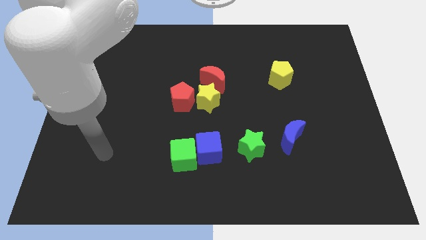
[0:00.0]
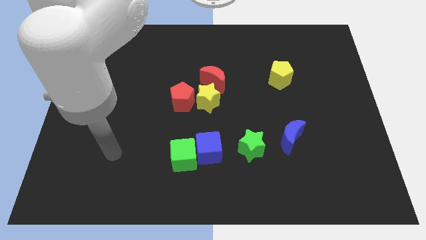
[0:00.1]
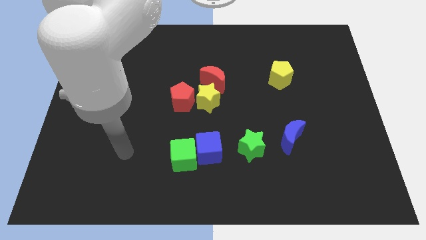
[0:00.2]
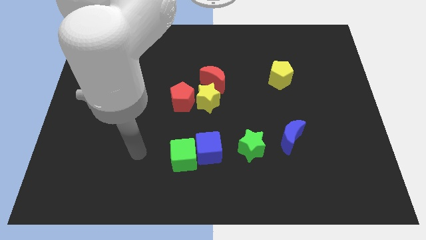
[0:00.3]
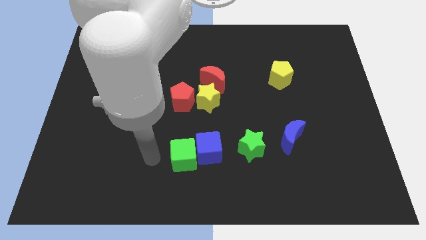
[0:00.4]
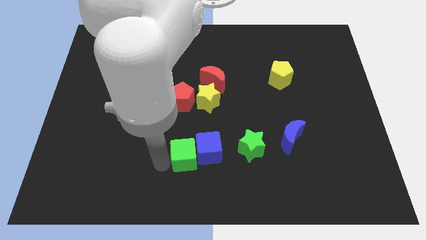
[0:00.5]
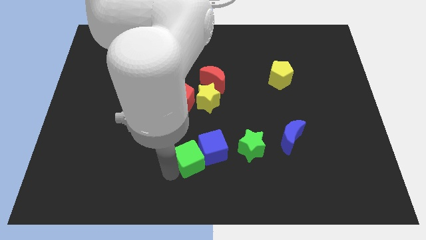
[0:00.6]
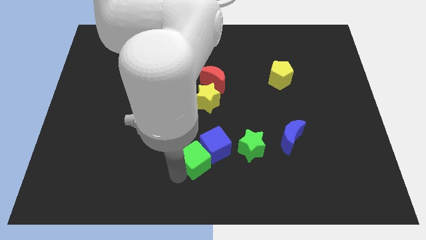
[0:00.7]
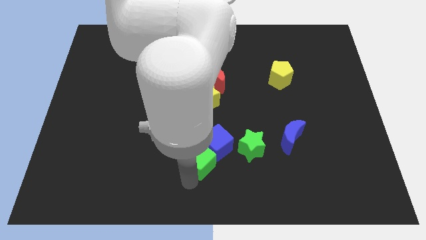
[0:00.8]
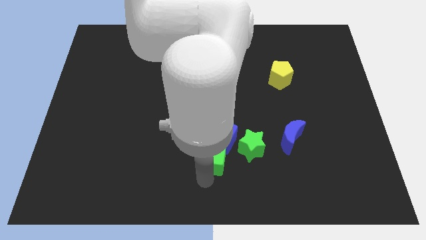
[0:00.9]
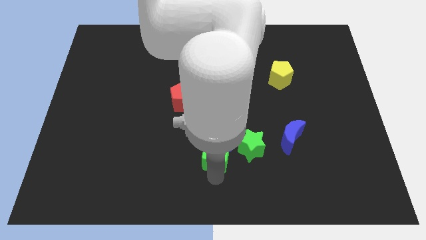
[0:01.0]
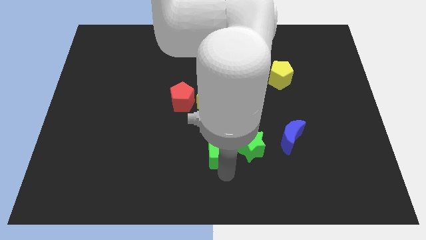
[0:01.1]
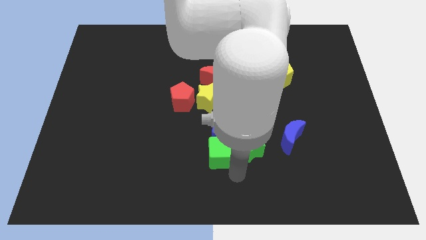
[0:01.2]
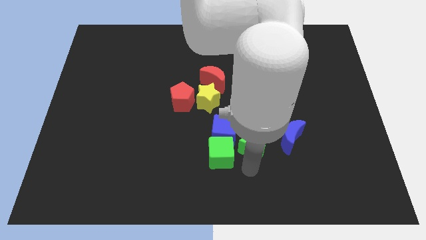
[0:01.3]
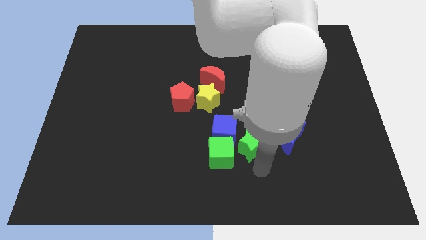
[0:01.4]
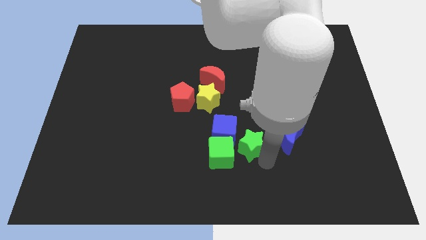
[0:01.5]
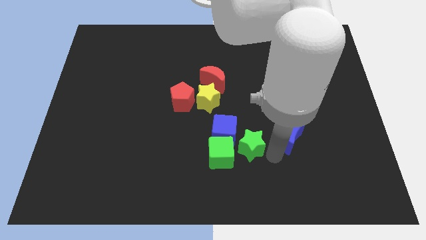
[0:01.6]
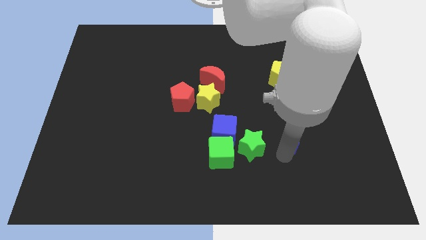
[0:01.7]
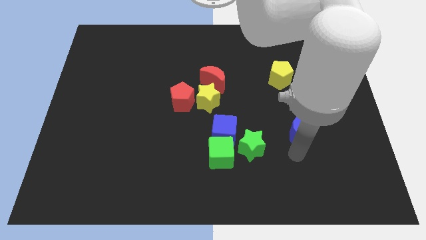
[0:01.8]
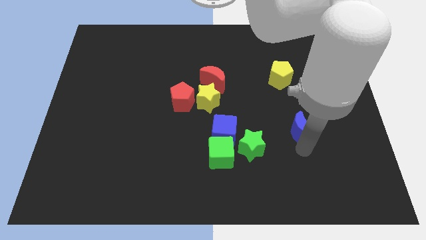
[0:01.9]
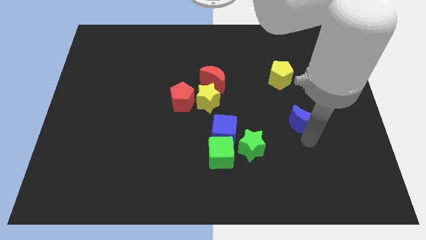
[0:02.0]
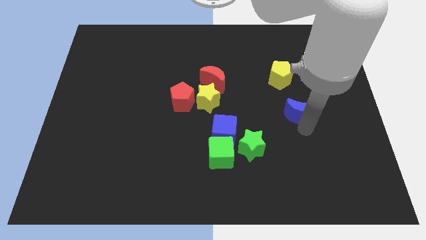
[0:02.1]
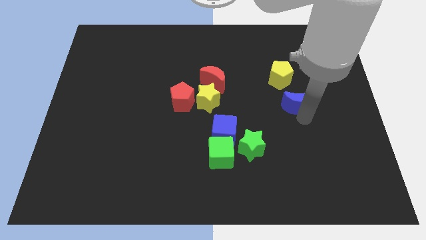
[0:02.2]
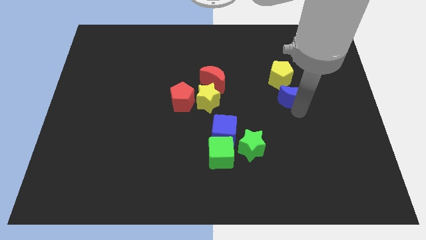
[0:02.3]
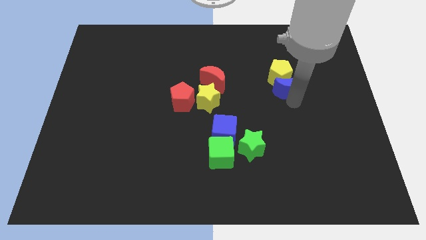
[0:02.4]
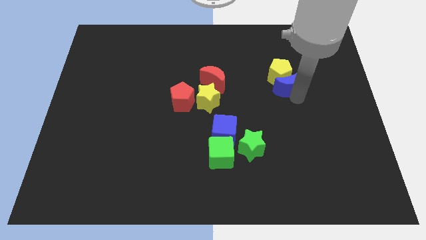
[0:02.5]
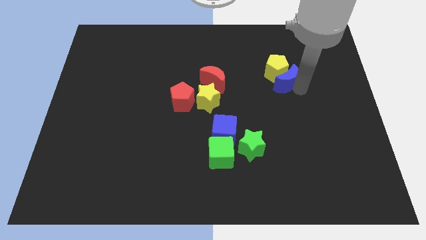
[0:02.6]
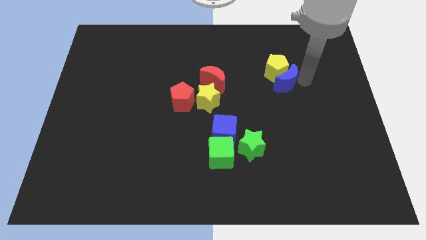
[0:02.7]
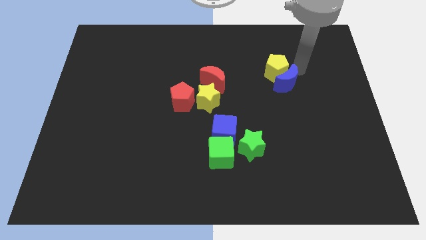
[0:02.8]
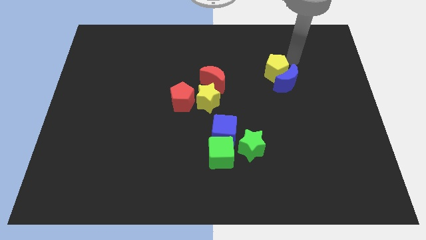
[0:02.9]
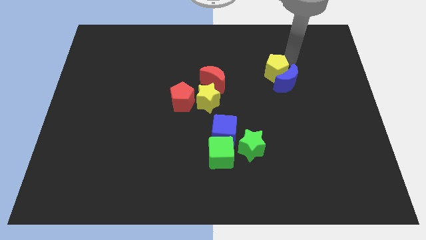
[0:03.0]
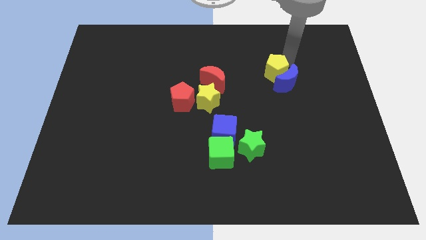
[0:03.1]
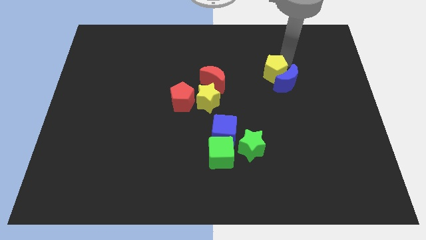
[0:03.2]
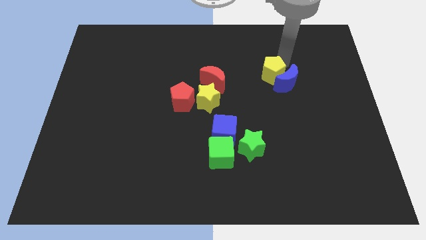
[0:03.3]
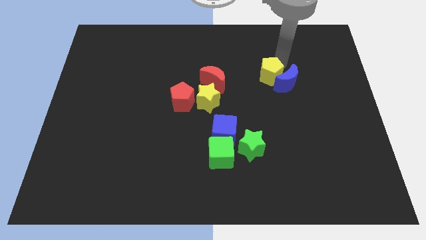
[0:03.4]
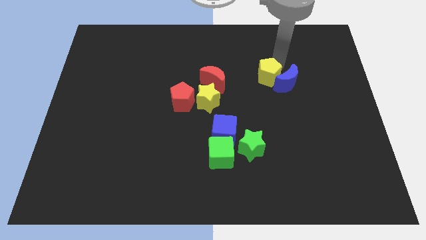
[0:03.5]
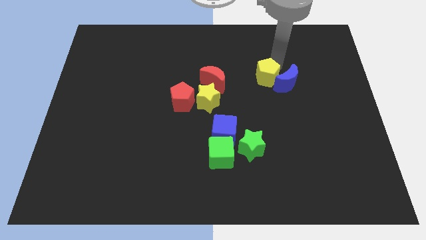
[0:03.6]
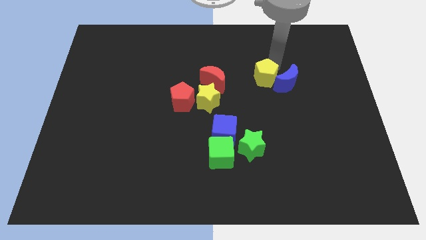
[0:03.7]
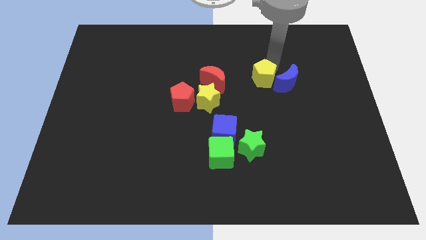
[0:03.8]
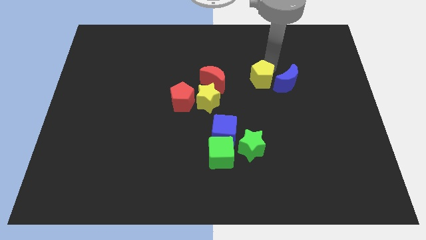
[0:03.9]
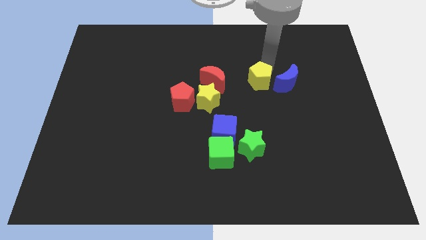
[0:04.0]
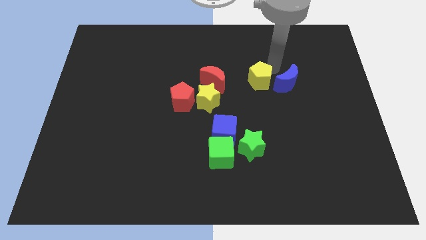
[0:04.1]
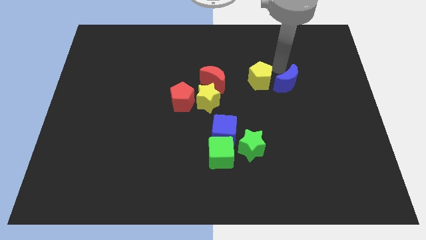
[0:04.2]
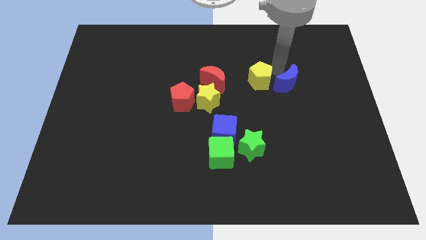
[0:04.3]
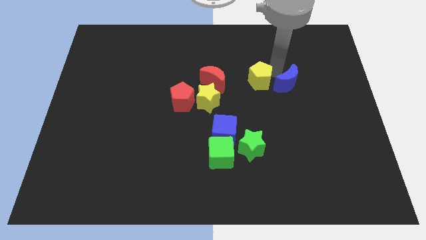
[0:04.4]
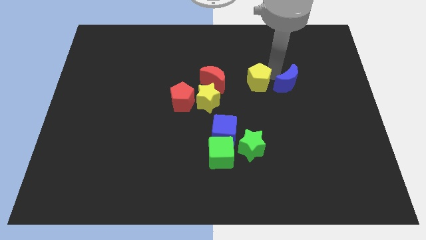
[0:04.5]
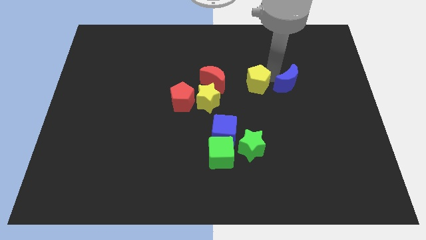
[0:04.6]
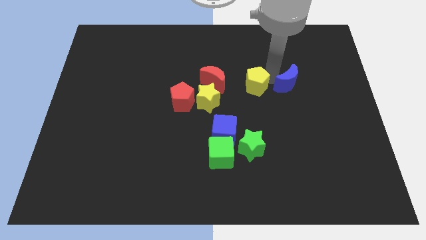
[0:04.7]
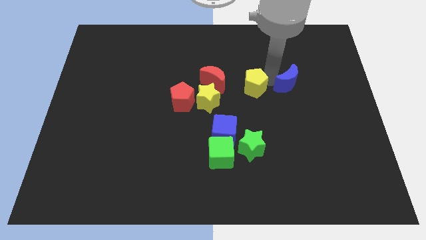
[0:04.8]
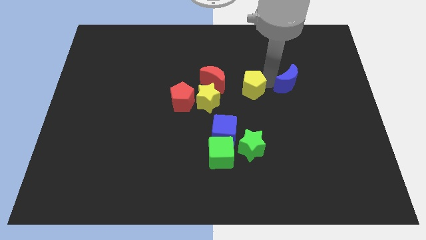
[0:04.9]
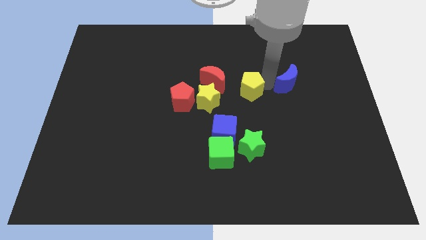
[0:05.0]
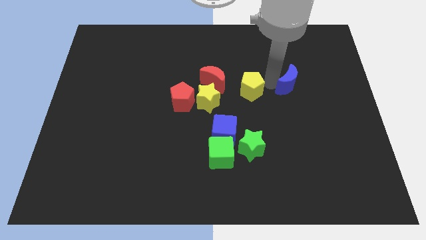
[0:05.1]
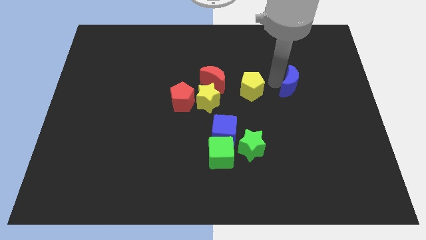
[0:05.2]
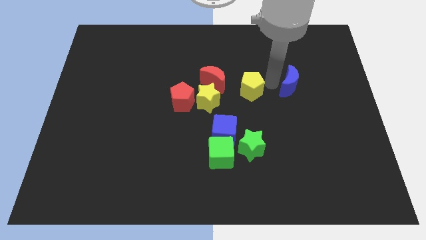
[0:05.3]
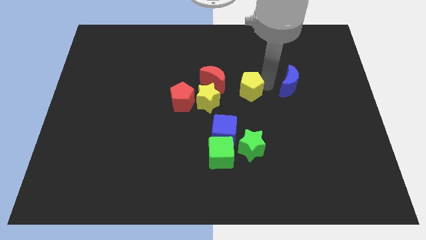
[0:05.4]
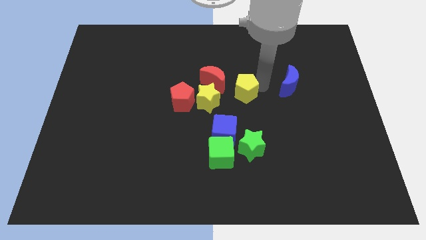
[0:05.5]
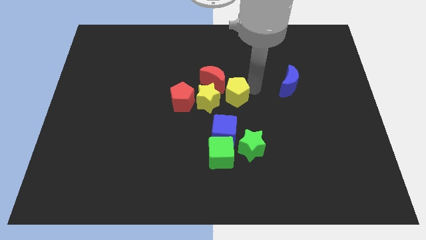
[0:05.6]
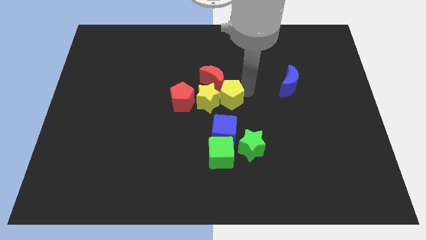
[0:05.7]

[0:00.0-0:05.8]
put the yellow pentagon towards the yellow star
